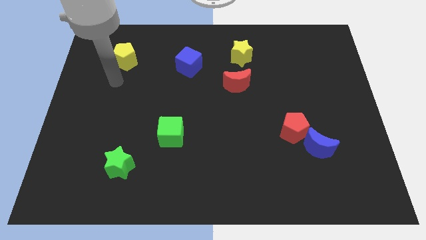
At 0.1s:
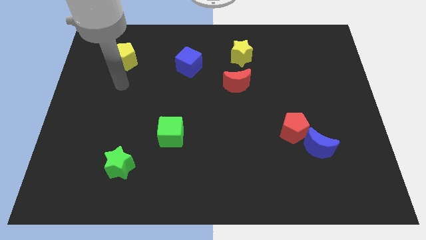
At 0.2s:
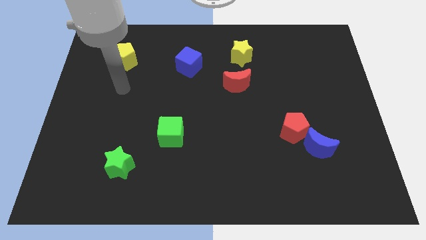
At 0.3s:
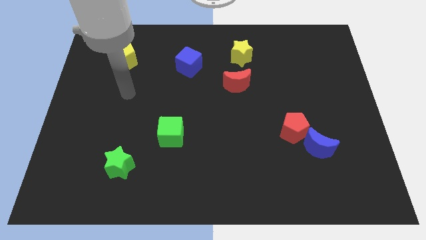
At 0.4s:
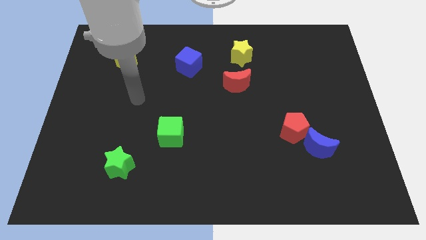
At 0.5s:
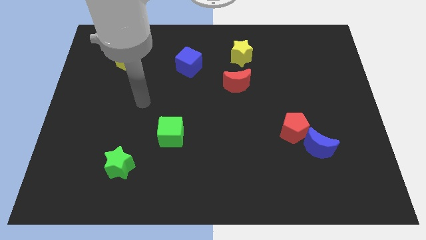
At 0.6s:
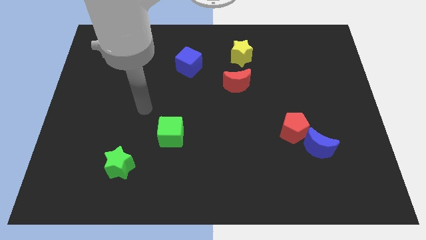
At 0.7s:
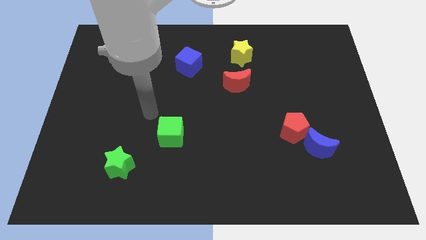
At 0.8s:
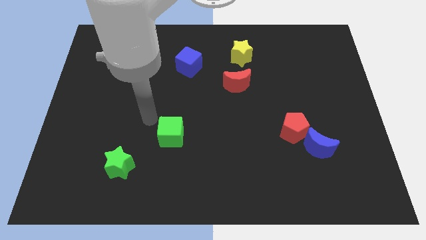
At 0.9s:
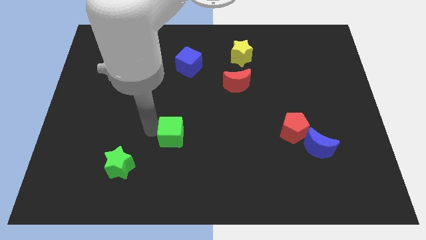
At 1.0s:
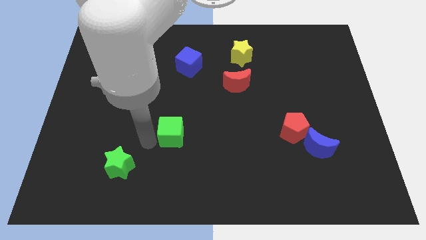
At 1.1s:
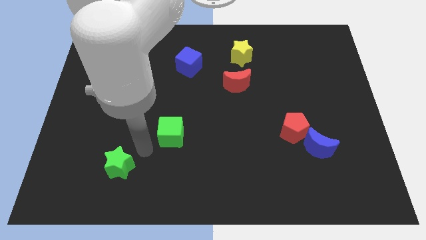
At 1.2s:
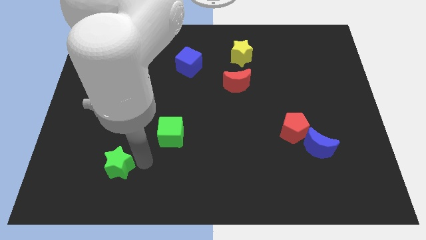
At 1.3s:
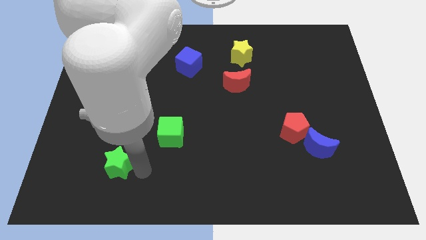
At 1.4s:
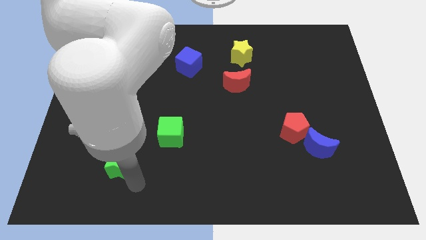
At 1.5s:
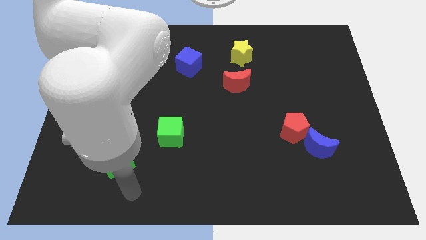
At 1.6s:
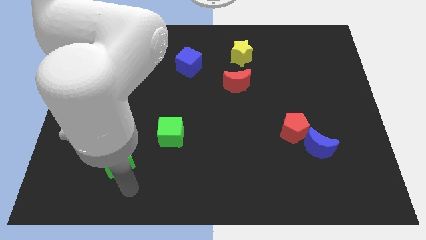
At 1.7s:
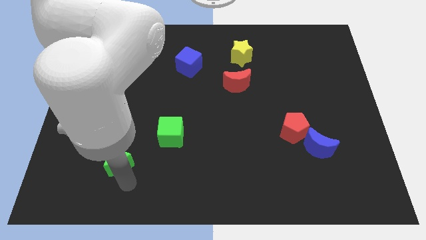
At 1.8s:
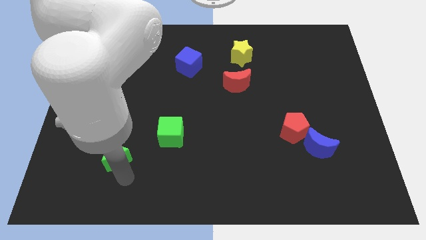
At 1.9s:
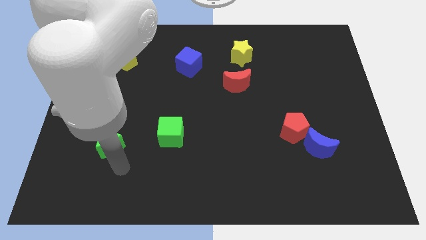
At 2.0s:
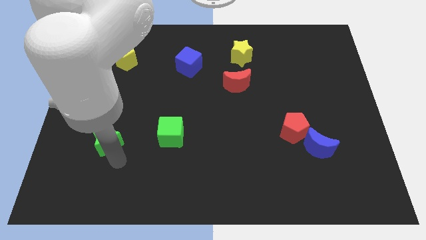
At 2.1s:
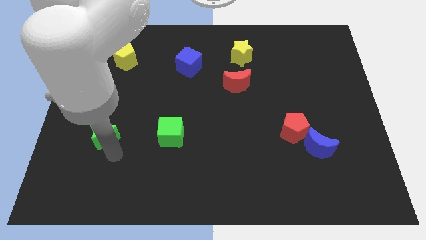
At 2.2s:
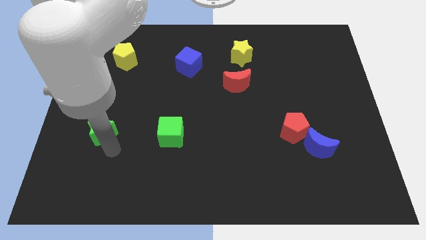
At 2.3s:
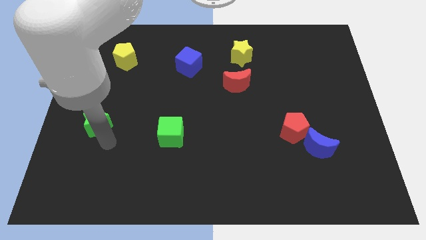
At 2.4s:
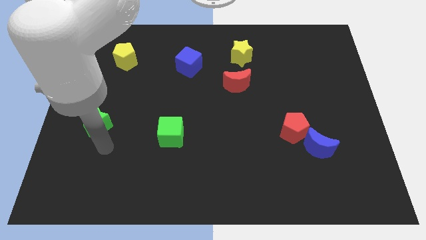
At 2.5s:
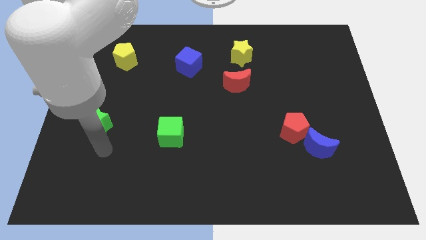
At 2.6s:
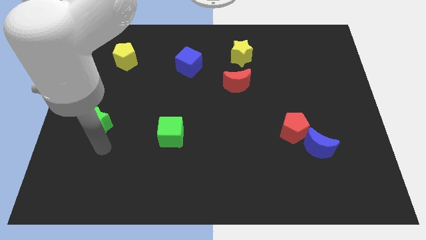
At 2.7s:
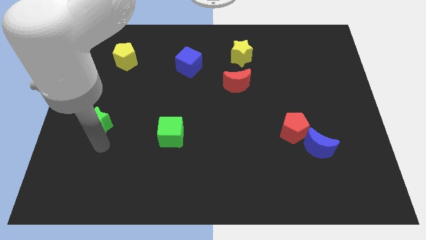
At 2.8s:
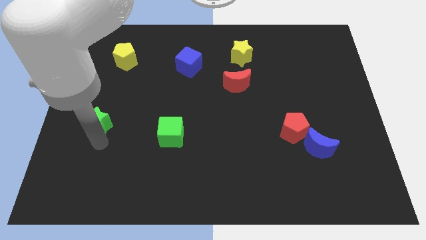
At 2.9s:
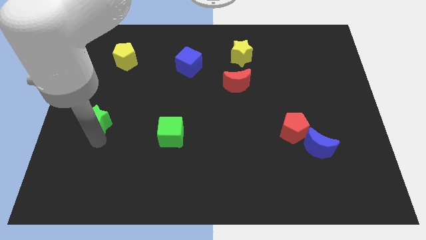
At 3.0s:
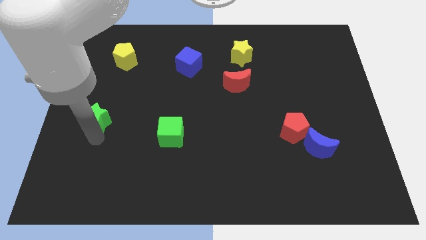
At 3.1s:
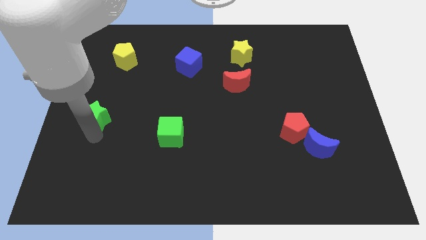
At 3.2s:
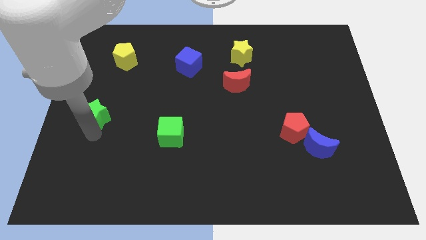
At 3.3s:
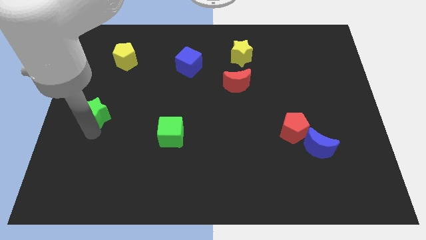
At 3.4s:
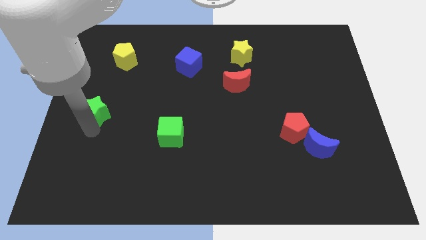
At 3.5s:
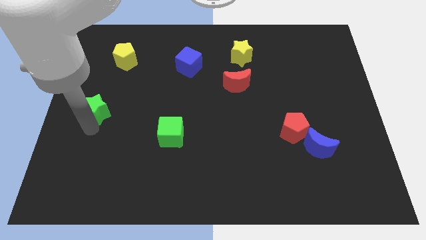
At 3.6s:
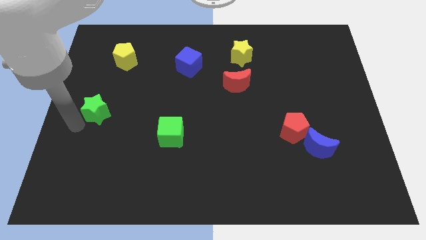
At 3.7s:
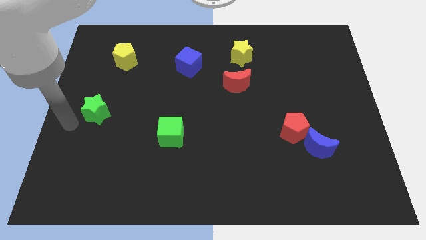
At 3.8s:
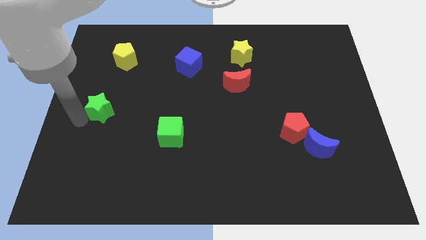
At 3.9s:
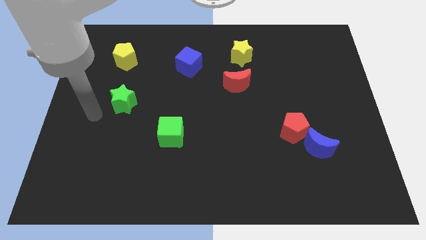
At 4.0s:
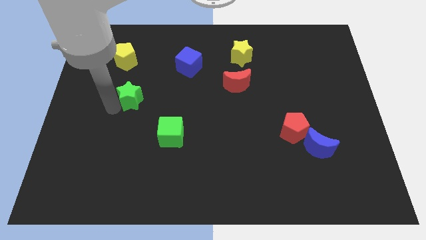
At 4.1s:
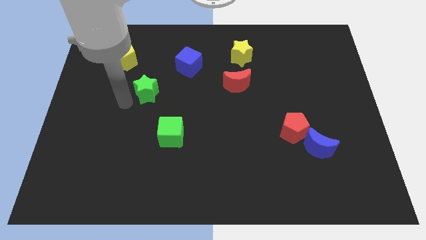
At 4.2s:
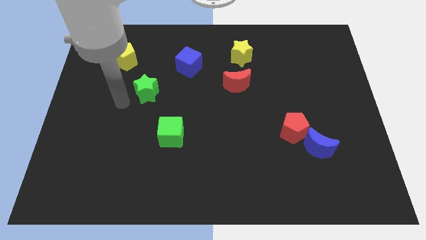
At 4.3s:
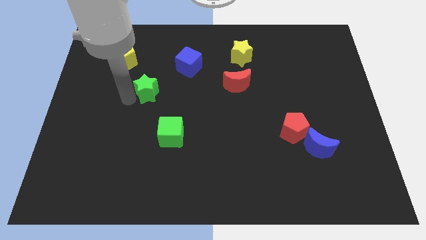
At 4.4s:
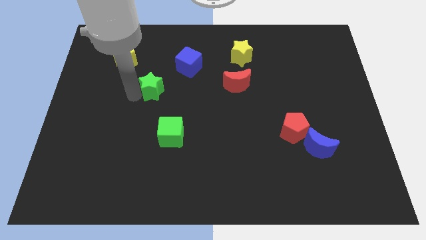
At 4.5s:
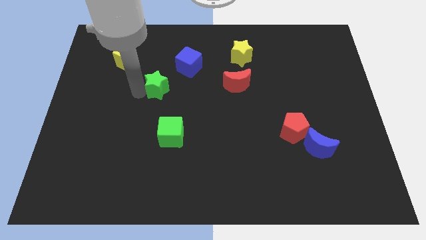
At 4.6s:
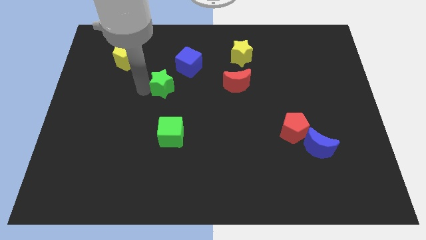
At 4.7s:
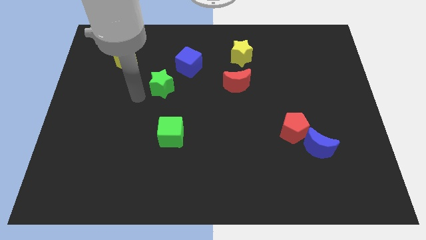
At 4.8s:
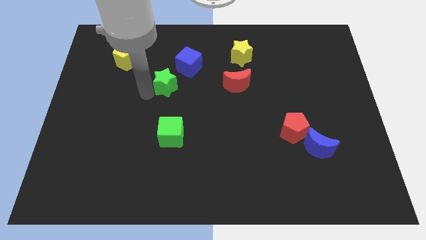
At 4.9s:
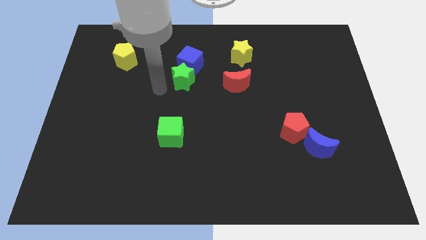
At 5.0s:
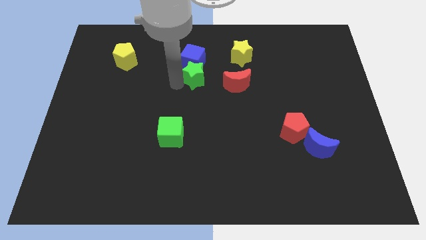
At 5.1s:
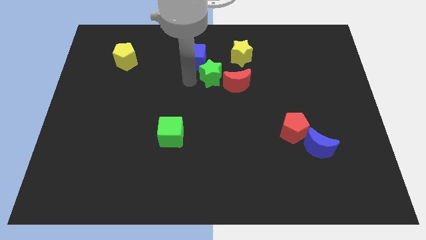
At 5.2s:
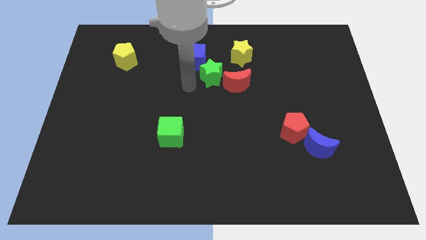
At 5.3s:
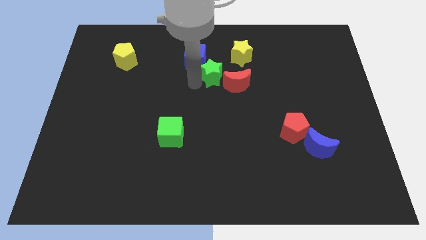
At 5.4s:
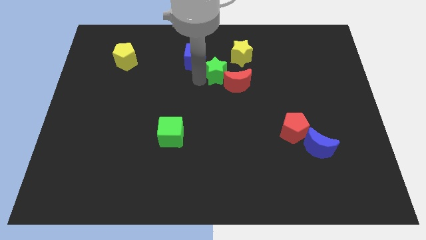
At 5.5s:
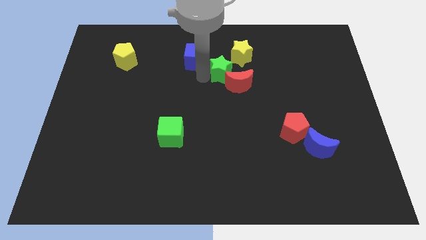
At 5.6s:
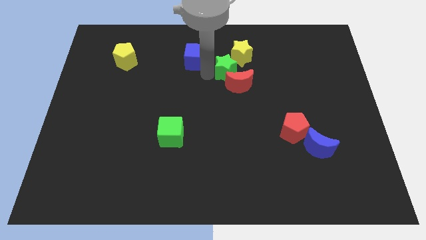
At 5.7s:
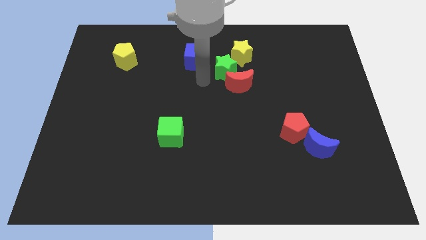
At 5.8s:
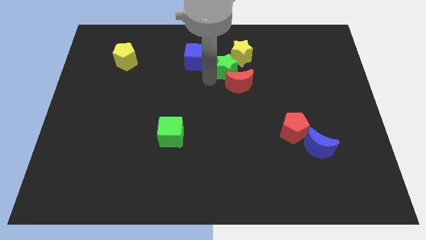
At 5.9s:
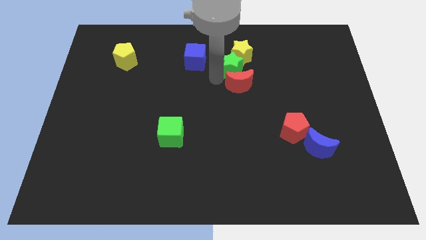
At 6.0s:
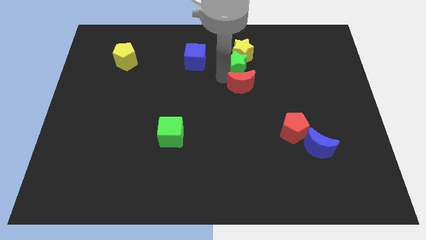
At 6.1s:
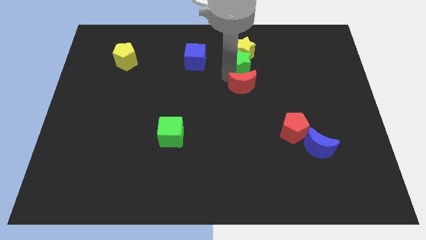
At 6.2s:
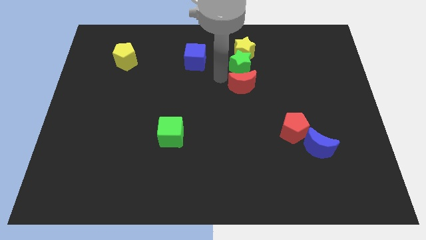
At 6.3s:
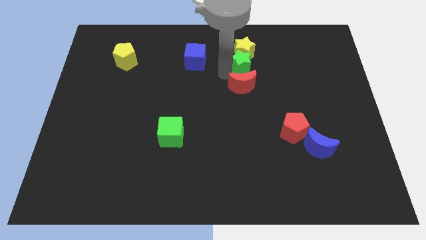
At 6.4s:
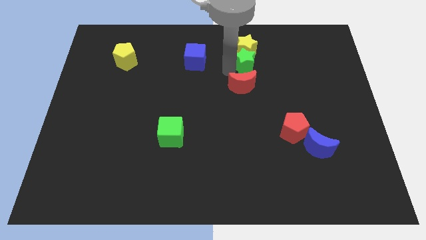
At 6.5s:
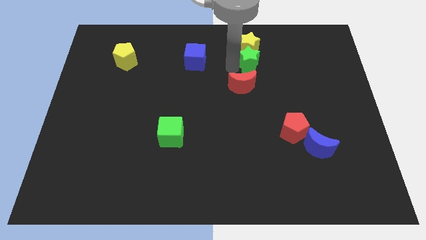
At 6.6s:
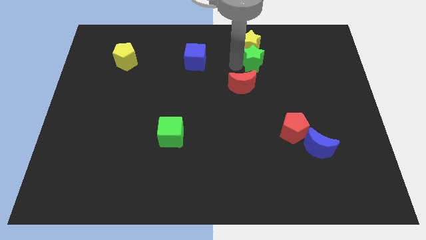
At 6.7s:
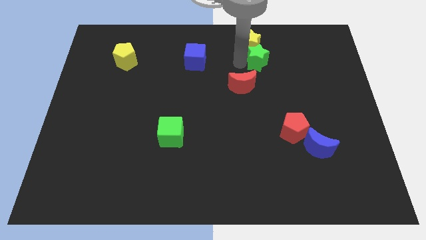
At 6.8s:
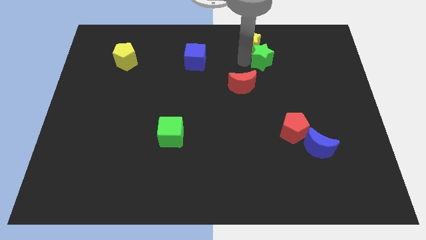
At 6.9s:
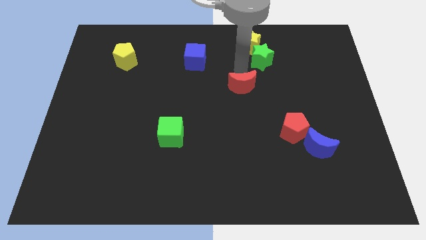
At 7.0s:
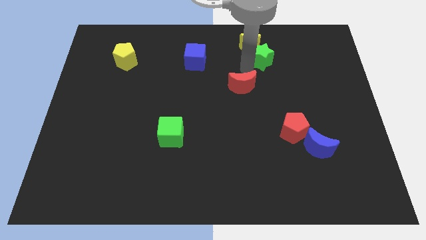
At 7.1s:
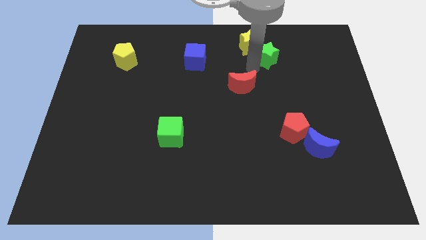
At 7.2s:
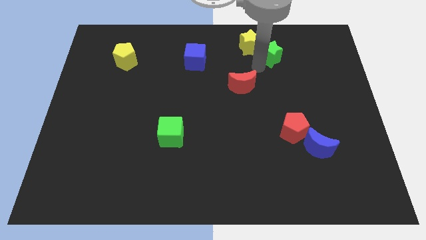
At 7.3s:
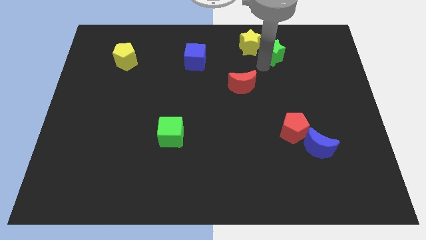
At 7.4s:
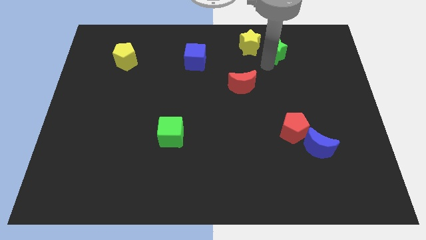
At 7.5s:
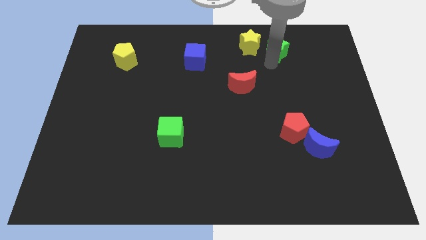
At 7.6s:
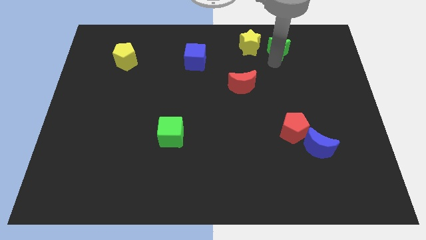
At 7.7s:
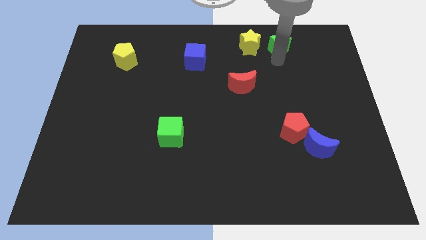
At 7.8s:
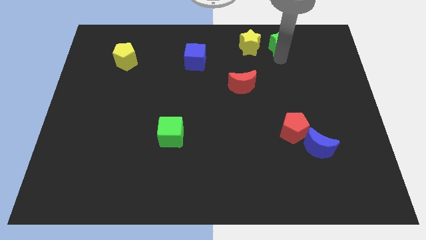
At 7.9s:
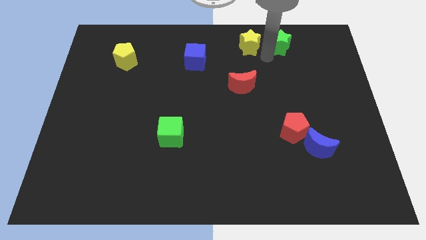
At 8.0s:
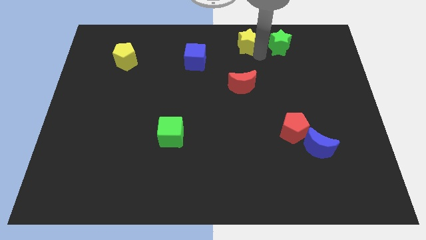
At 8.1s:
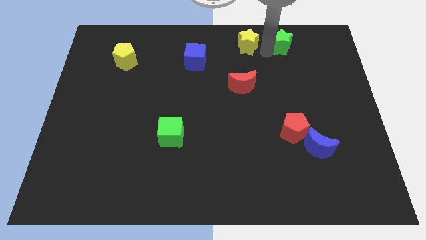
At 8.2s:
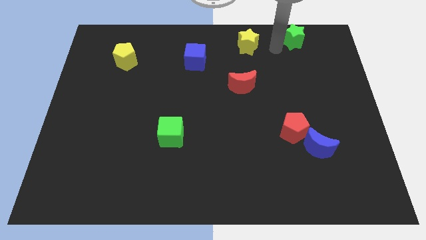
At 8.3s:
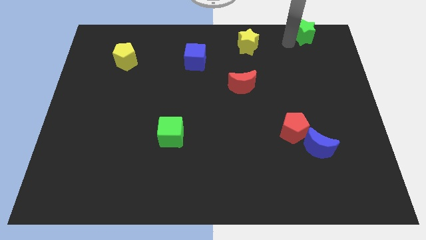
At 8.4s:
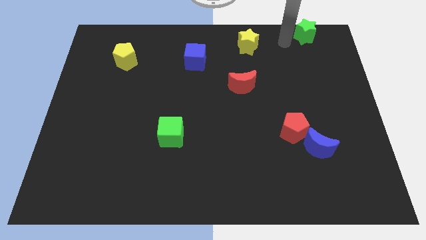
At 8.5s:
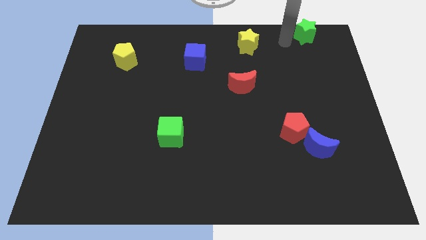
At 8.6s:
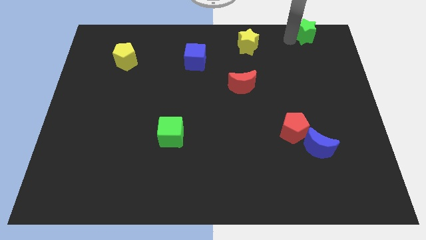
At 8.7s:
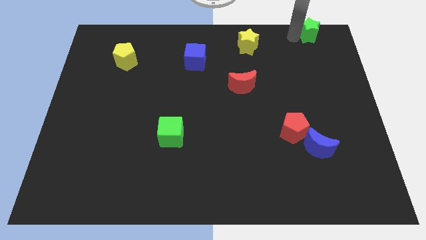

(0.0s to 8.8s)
slide the green star to the top right
